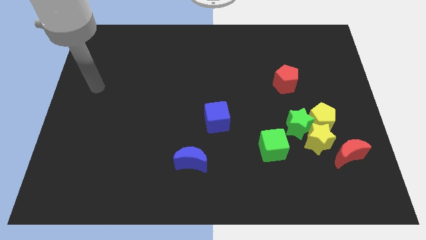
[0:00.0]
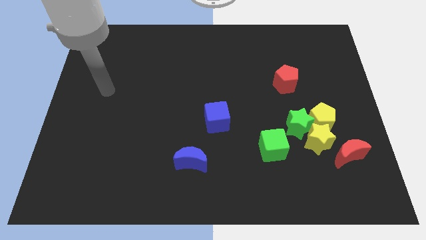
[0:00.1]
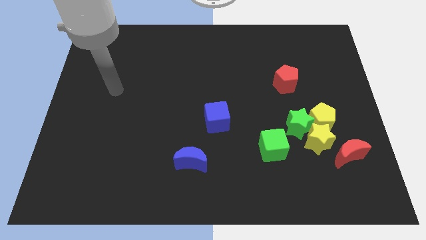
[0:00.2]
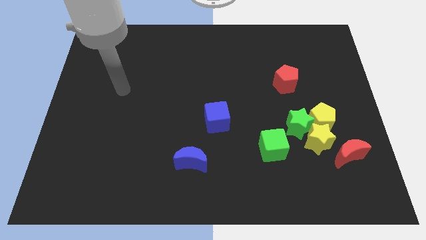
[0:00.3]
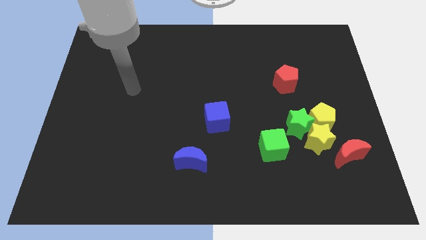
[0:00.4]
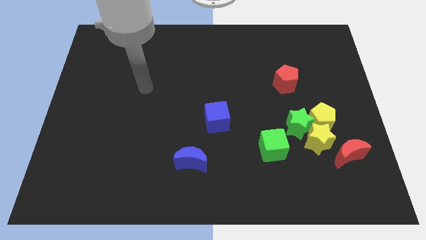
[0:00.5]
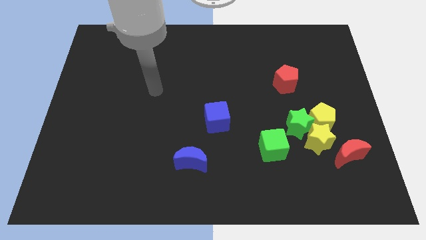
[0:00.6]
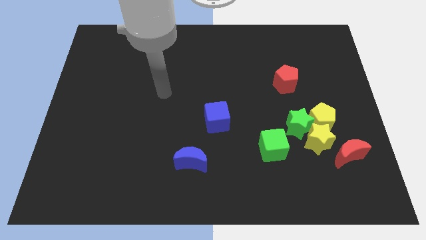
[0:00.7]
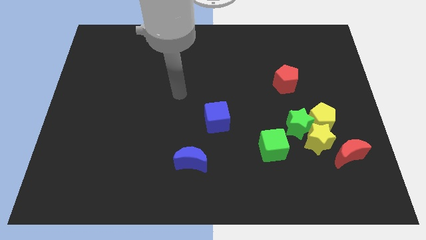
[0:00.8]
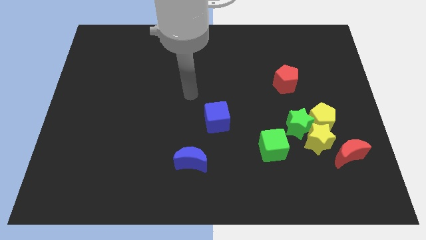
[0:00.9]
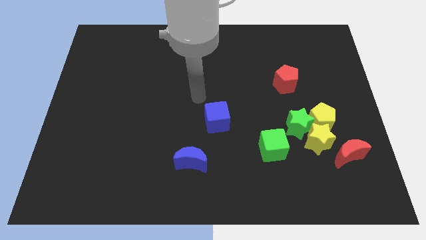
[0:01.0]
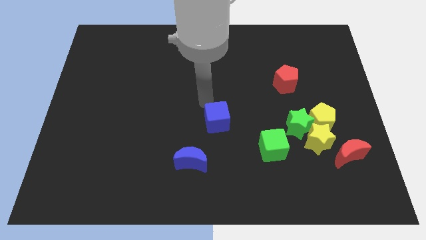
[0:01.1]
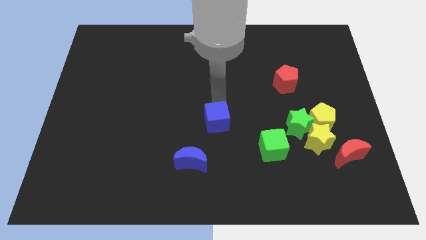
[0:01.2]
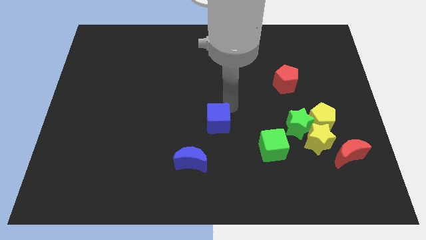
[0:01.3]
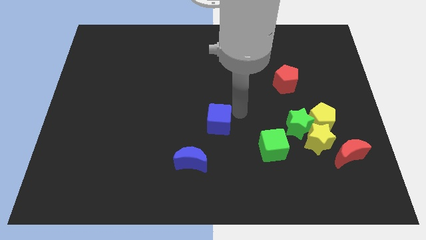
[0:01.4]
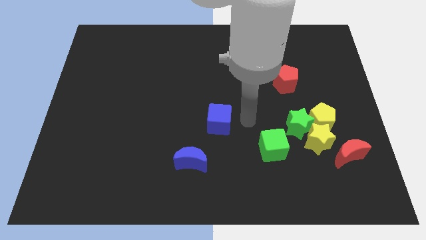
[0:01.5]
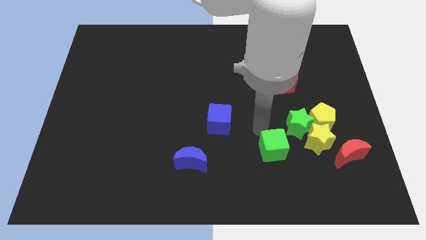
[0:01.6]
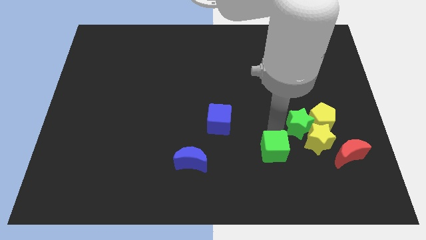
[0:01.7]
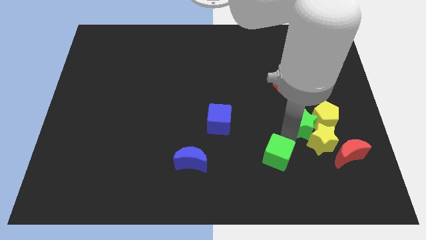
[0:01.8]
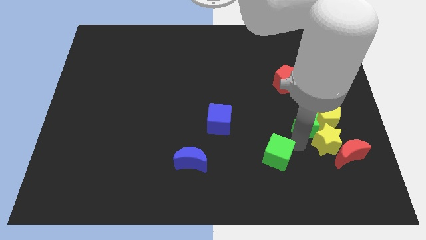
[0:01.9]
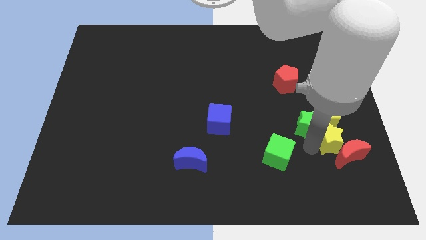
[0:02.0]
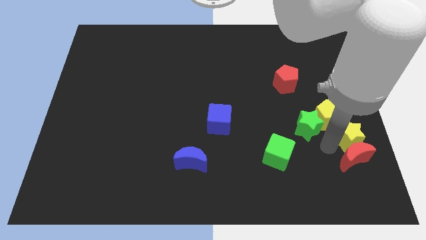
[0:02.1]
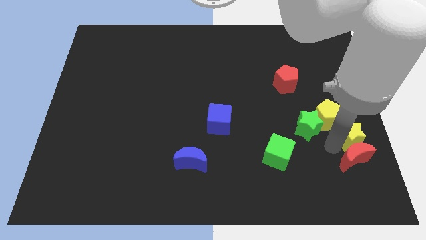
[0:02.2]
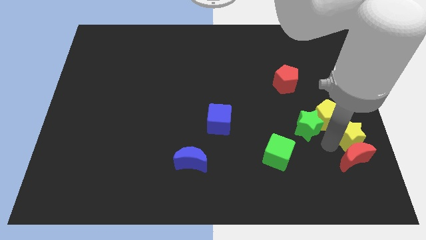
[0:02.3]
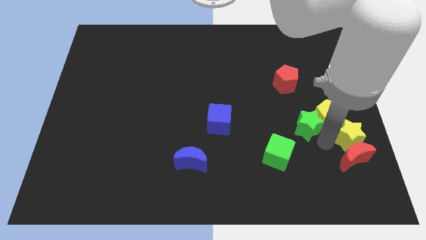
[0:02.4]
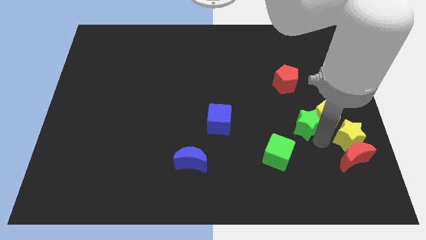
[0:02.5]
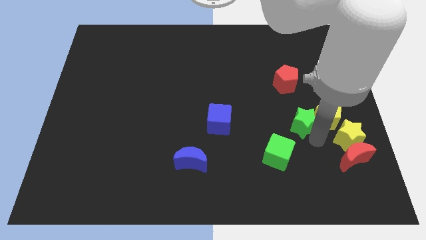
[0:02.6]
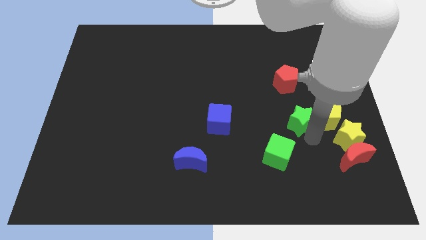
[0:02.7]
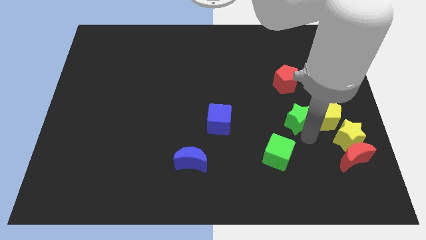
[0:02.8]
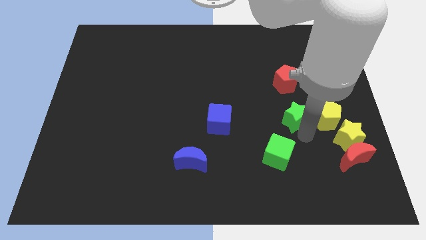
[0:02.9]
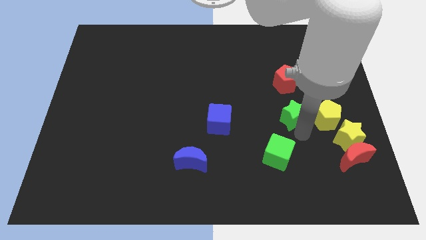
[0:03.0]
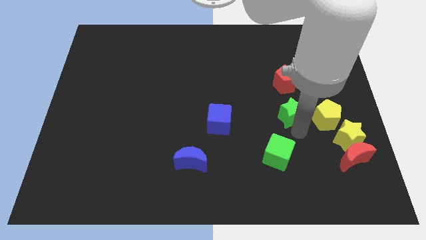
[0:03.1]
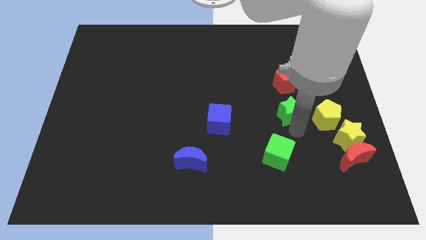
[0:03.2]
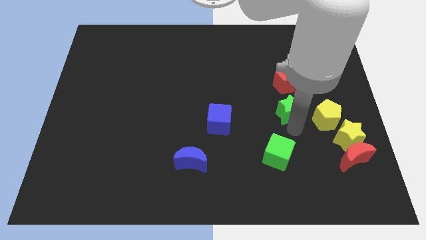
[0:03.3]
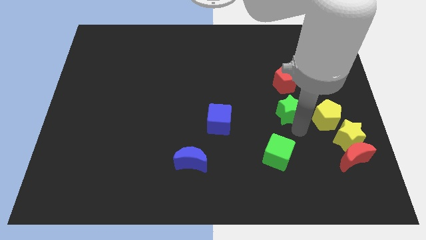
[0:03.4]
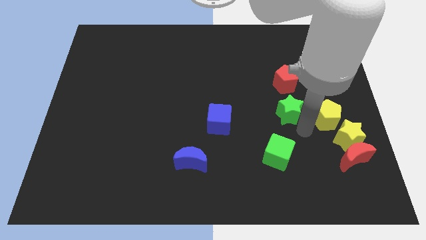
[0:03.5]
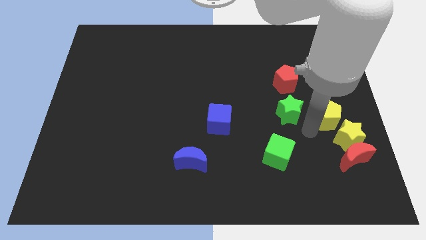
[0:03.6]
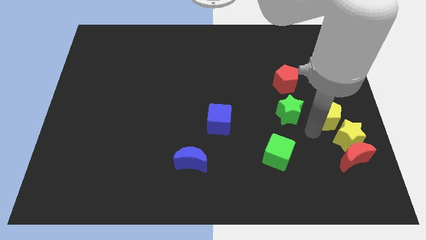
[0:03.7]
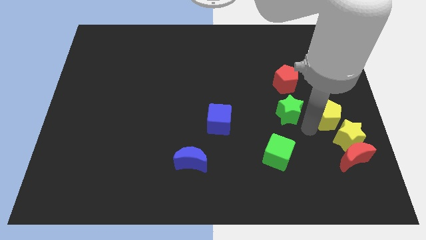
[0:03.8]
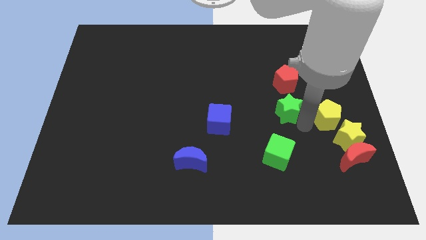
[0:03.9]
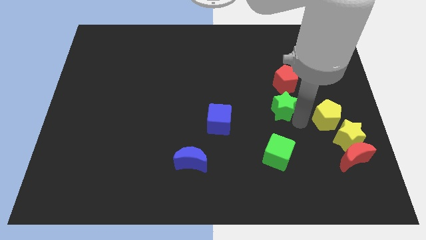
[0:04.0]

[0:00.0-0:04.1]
move the green star away from the group

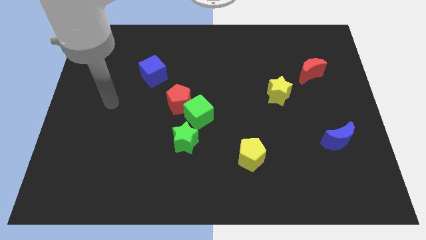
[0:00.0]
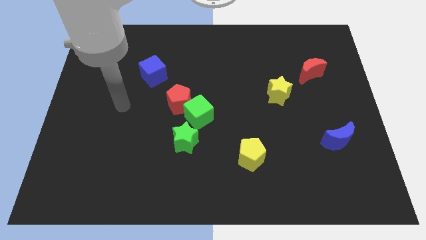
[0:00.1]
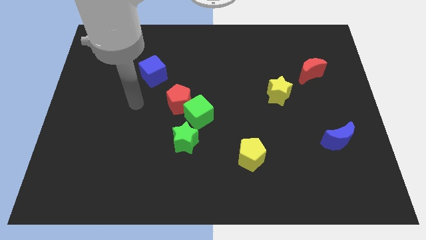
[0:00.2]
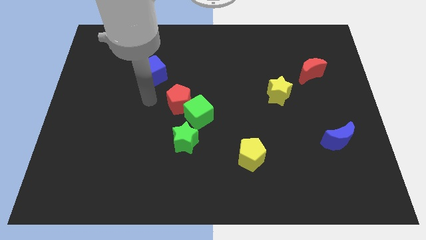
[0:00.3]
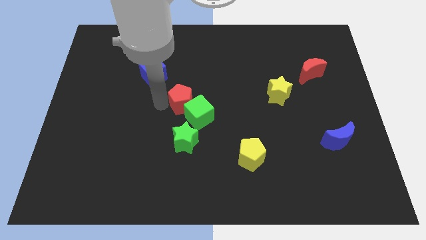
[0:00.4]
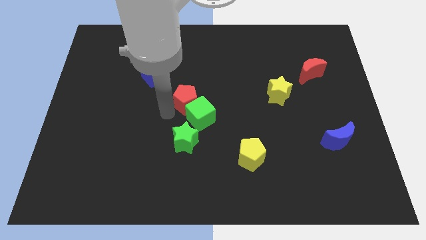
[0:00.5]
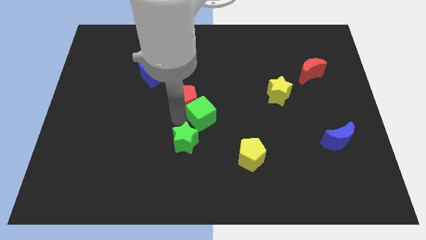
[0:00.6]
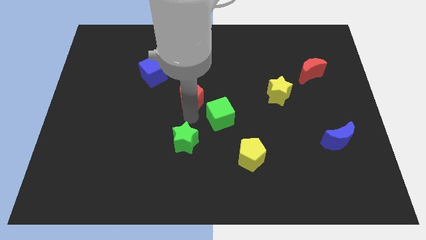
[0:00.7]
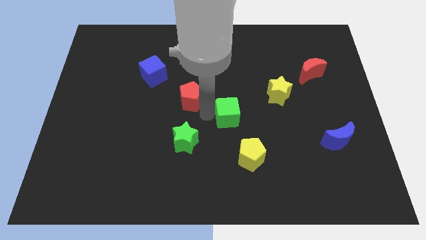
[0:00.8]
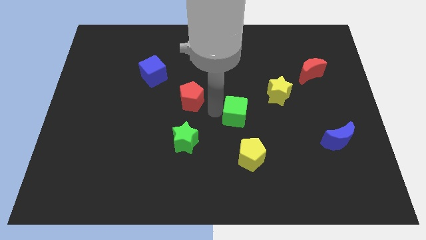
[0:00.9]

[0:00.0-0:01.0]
pull the red pentagon apart from the green cube

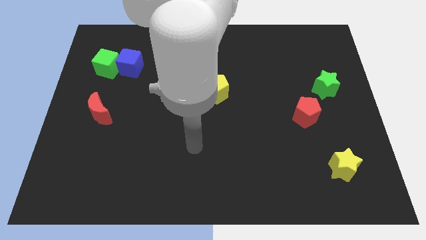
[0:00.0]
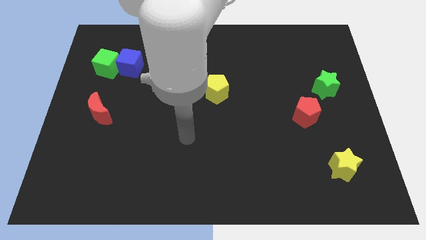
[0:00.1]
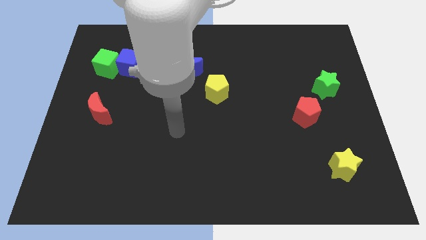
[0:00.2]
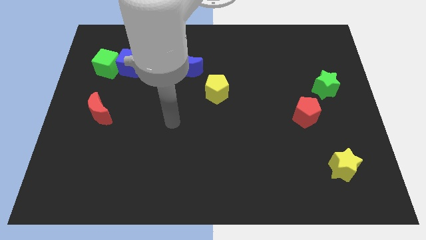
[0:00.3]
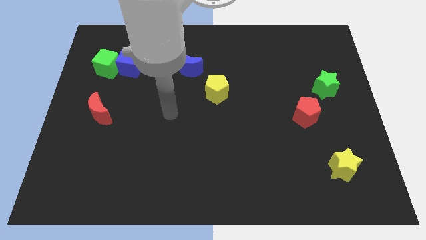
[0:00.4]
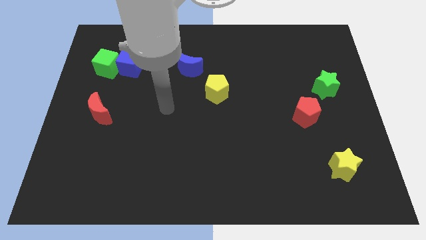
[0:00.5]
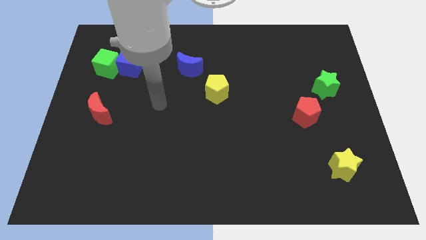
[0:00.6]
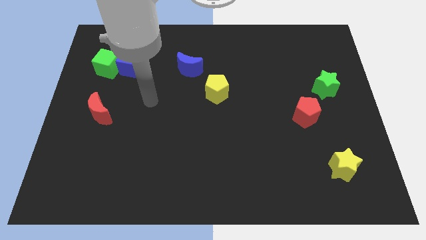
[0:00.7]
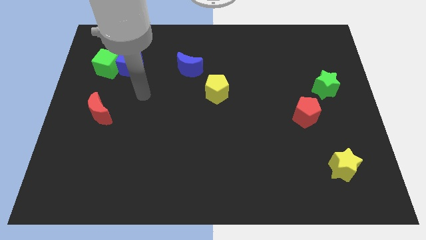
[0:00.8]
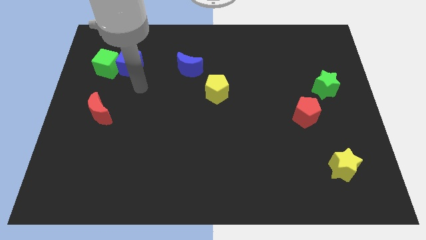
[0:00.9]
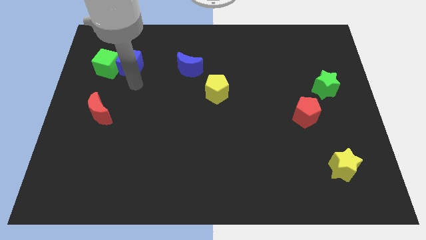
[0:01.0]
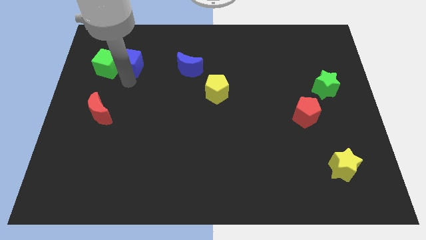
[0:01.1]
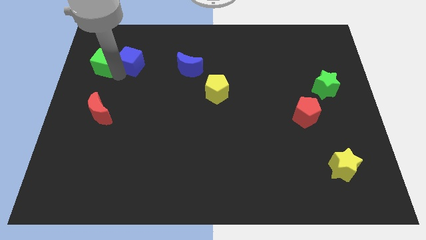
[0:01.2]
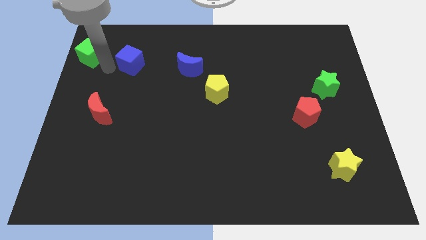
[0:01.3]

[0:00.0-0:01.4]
move the blue cube away from the green cube

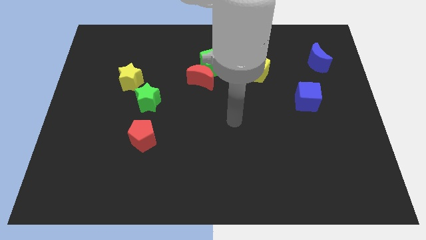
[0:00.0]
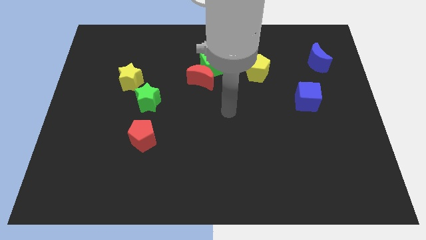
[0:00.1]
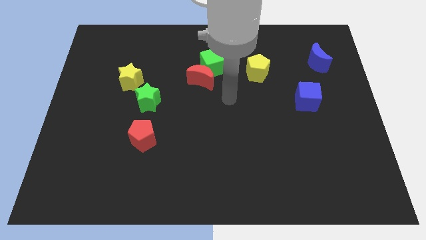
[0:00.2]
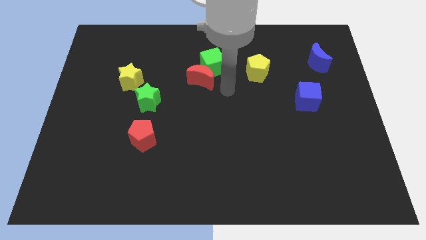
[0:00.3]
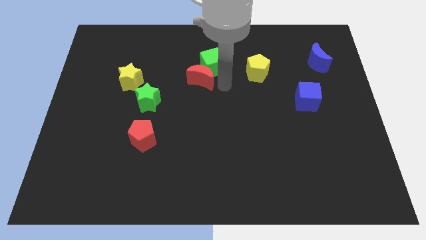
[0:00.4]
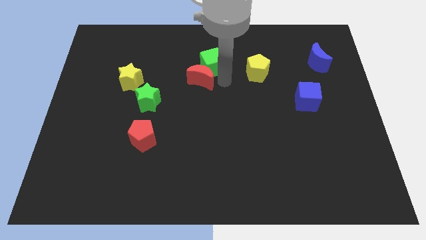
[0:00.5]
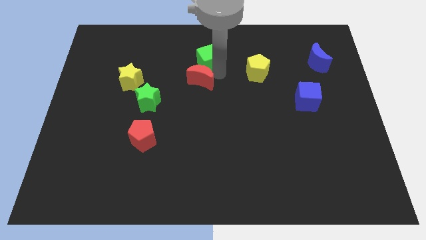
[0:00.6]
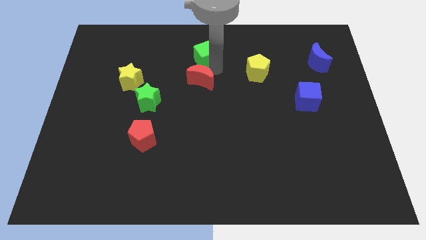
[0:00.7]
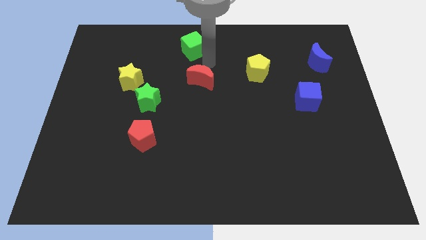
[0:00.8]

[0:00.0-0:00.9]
pull the red moon apart from the green cube

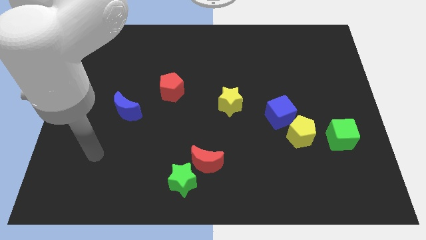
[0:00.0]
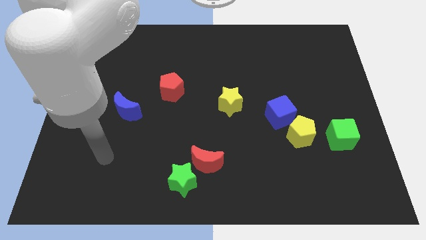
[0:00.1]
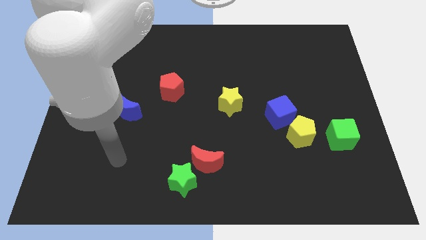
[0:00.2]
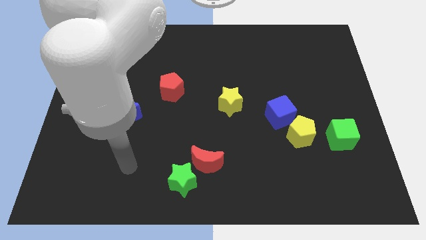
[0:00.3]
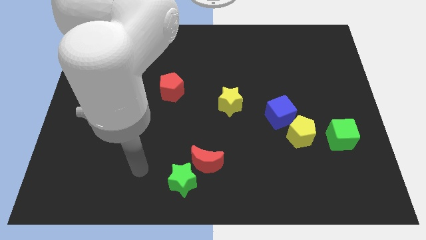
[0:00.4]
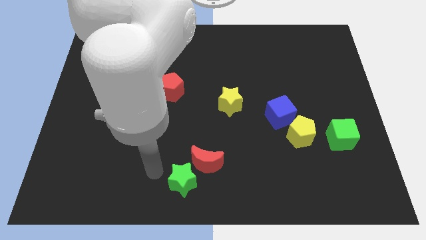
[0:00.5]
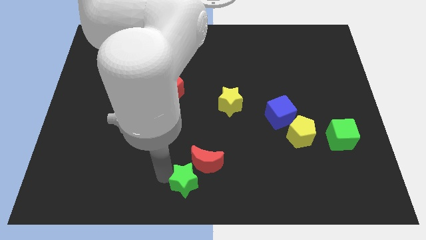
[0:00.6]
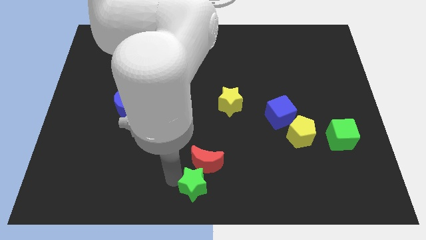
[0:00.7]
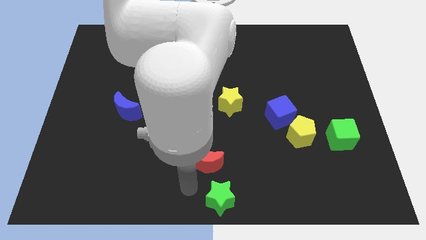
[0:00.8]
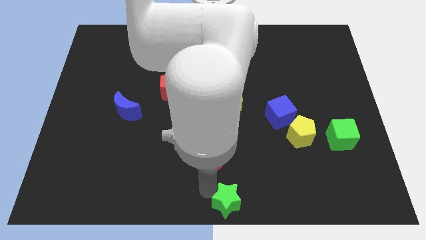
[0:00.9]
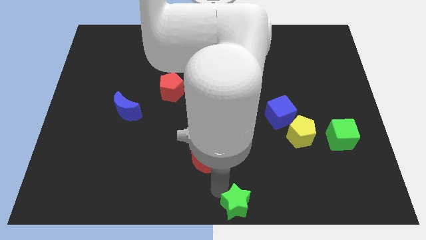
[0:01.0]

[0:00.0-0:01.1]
separate the red moon from the green star

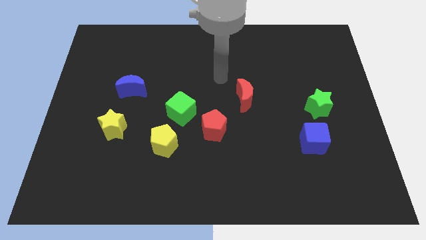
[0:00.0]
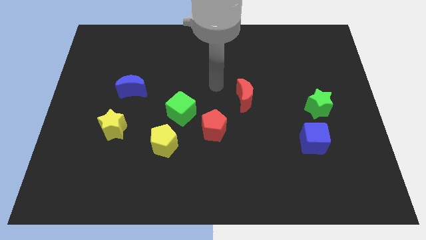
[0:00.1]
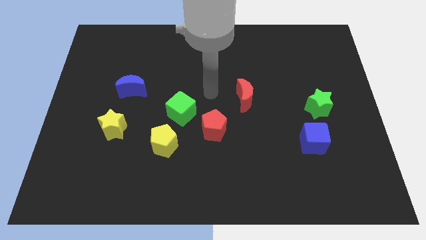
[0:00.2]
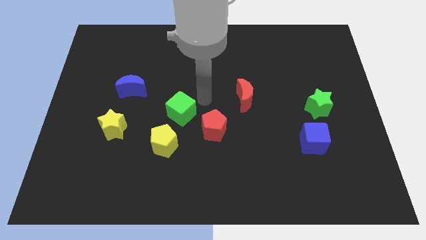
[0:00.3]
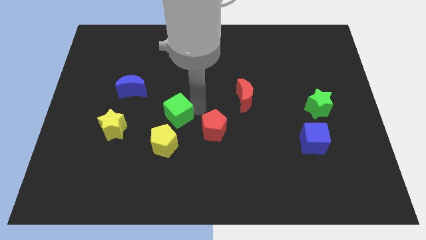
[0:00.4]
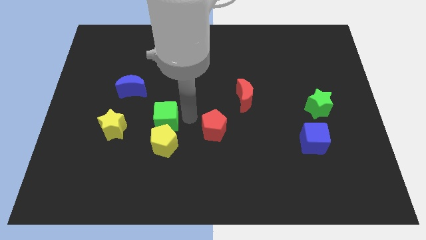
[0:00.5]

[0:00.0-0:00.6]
move the red pentagon away from the green cube

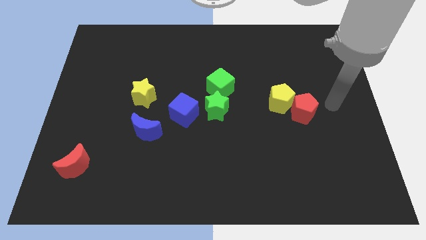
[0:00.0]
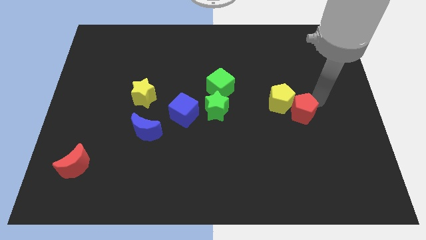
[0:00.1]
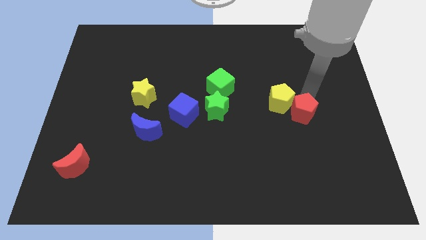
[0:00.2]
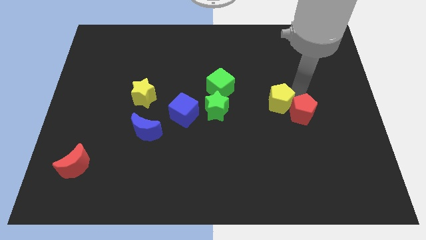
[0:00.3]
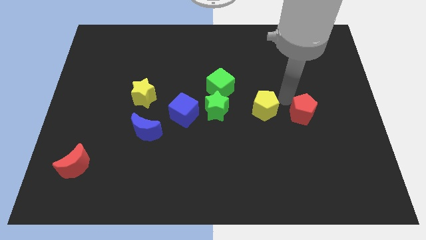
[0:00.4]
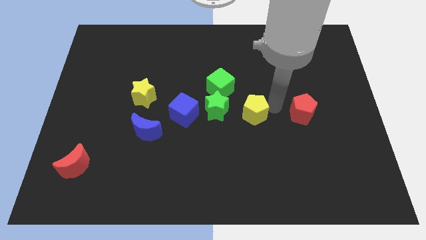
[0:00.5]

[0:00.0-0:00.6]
pull the red pentagon apart from the yellow pentagon
